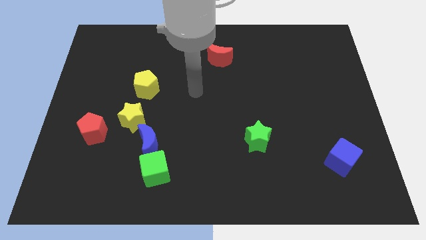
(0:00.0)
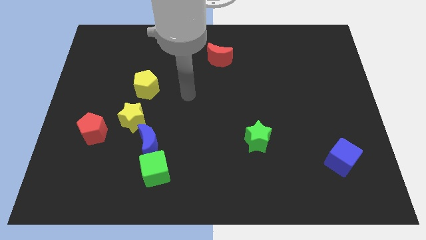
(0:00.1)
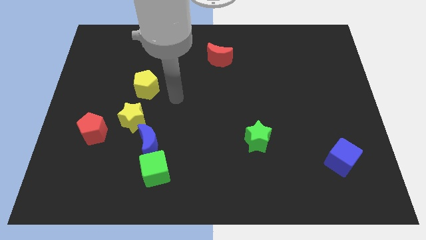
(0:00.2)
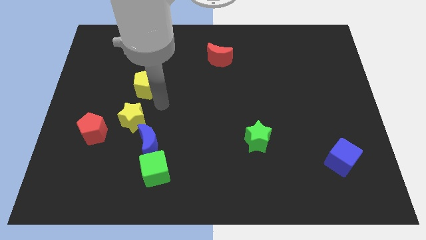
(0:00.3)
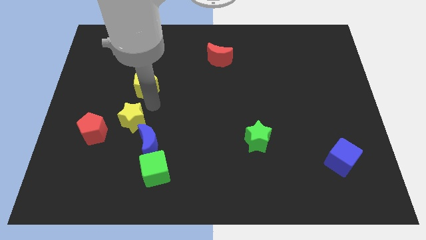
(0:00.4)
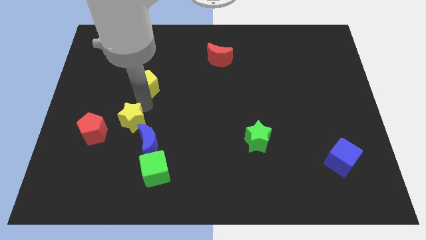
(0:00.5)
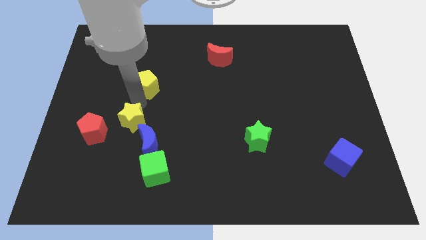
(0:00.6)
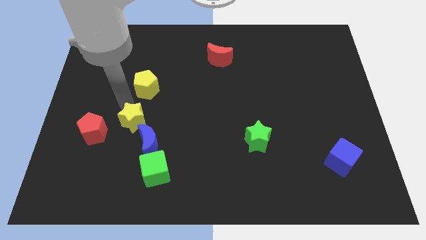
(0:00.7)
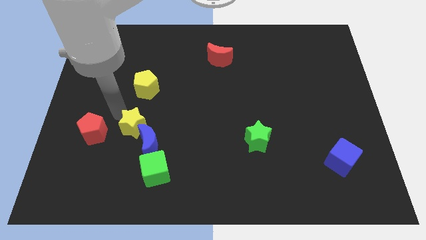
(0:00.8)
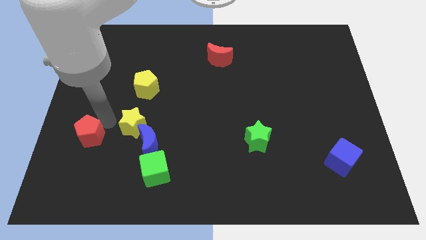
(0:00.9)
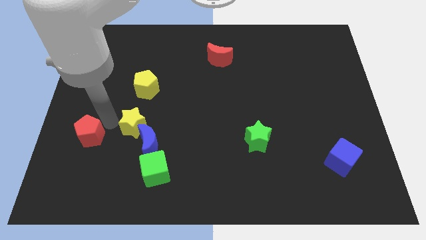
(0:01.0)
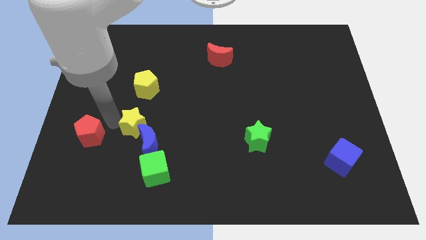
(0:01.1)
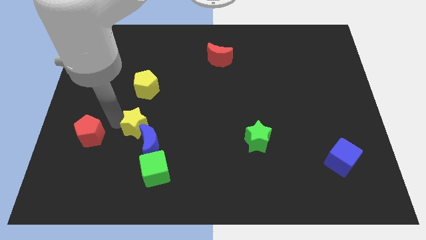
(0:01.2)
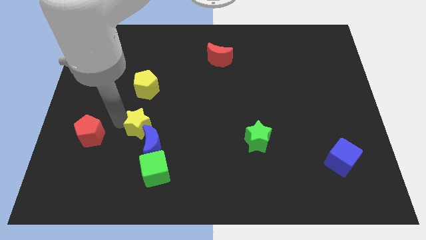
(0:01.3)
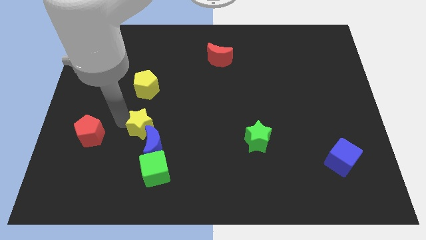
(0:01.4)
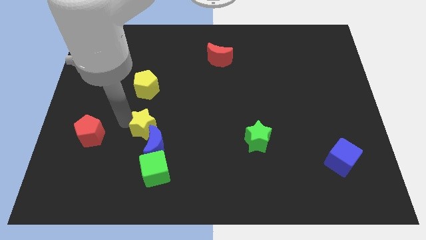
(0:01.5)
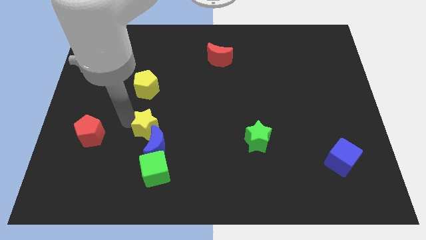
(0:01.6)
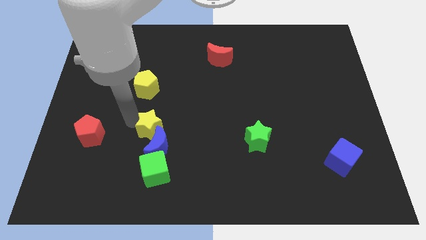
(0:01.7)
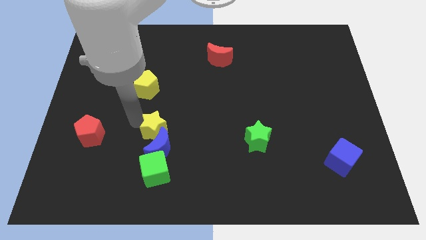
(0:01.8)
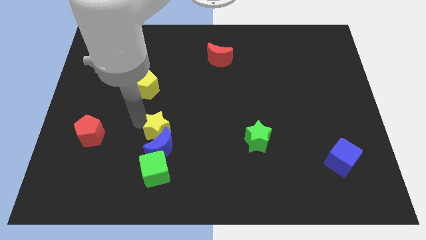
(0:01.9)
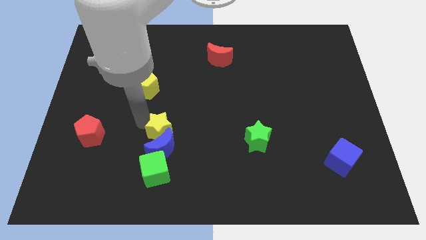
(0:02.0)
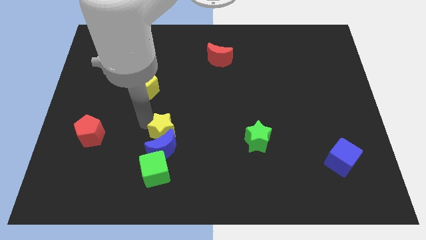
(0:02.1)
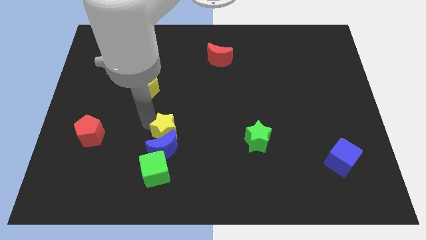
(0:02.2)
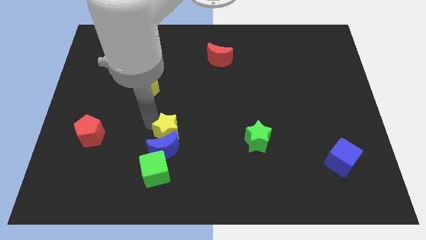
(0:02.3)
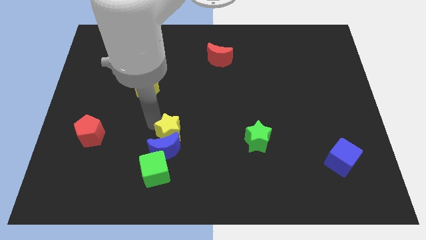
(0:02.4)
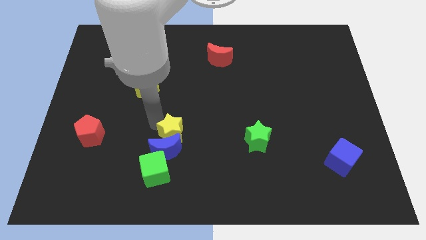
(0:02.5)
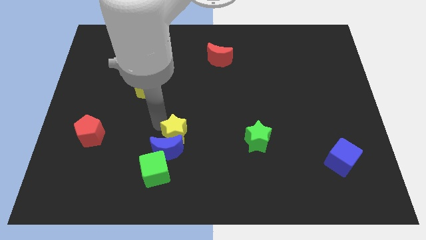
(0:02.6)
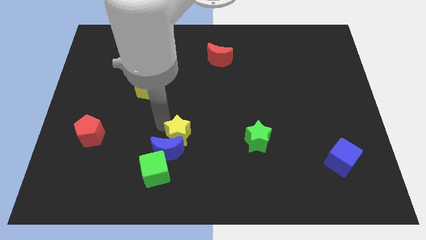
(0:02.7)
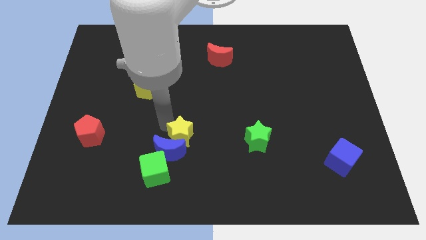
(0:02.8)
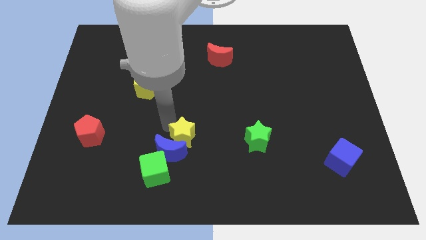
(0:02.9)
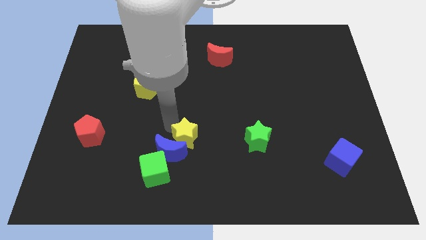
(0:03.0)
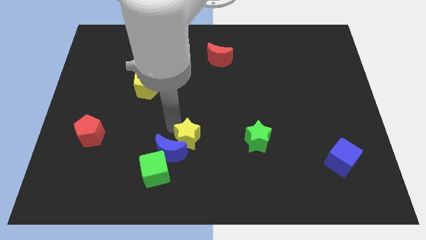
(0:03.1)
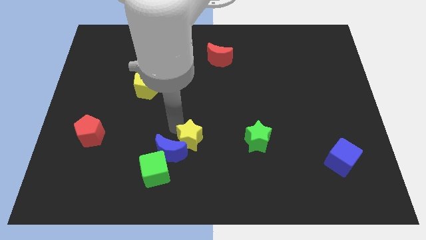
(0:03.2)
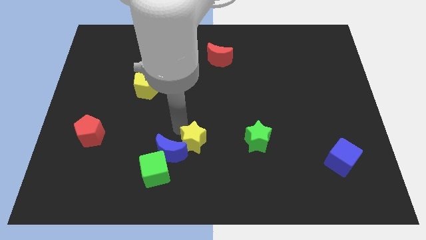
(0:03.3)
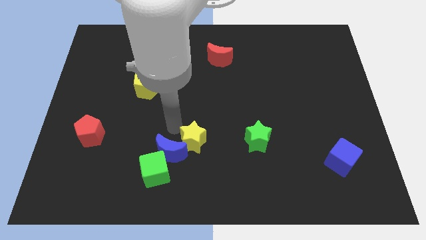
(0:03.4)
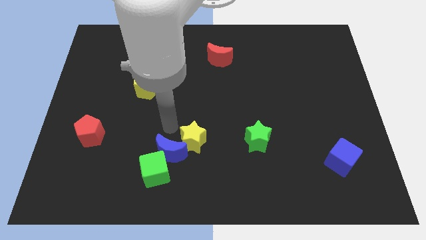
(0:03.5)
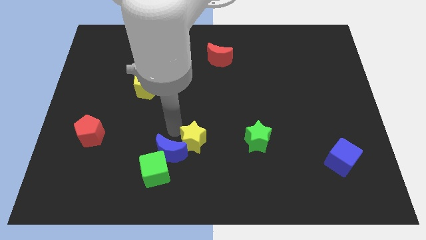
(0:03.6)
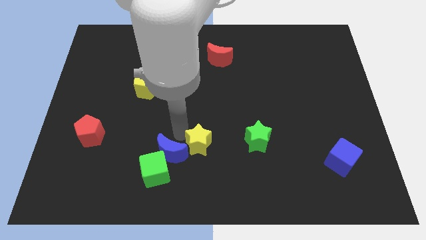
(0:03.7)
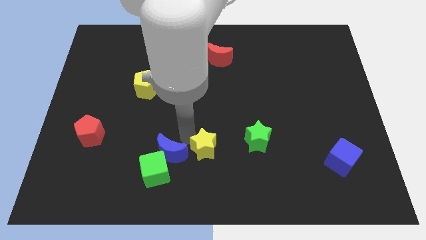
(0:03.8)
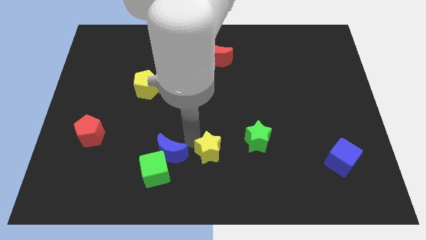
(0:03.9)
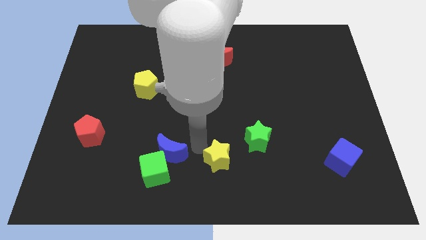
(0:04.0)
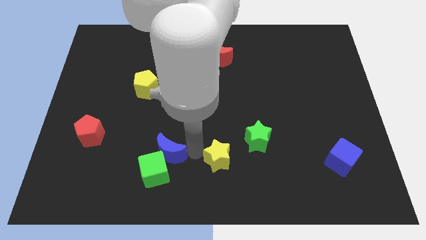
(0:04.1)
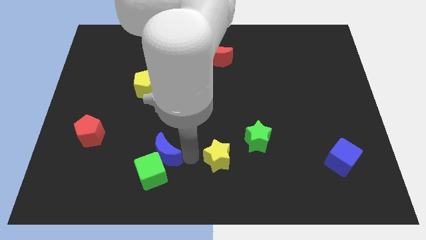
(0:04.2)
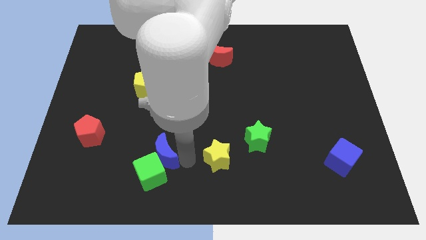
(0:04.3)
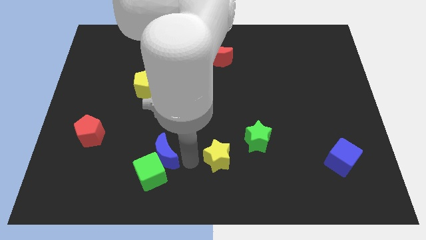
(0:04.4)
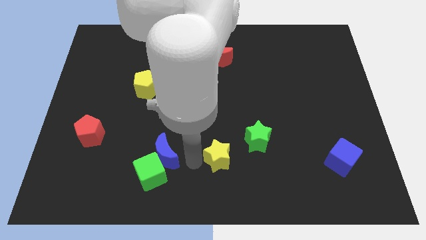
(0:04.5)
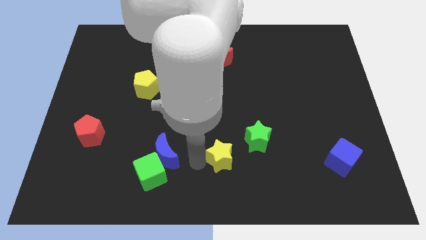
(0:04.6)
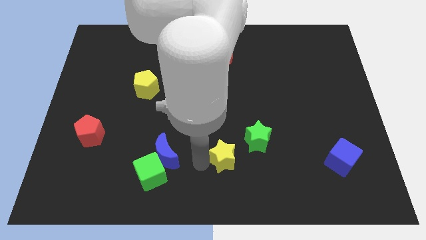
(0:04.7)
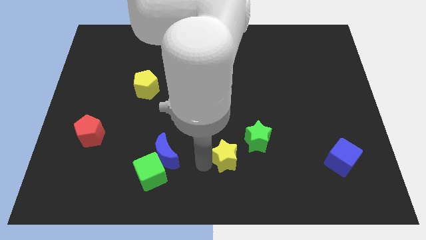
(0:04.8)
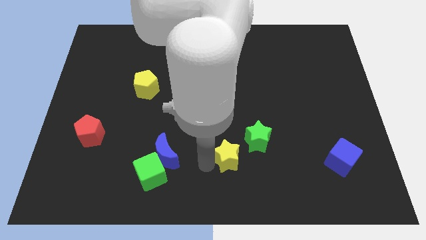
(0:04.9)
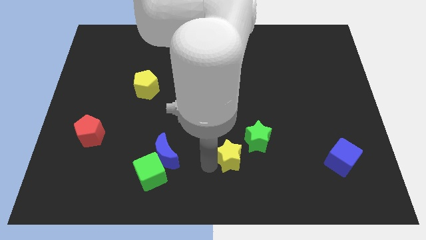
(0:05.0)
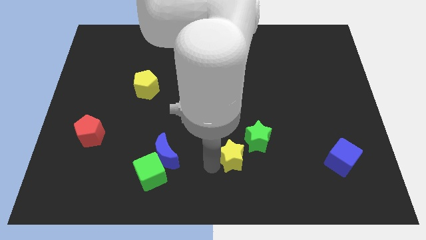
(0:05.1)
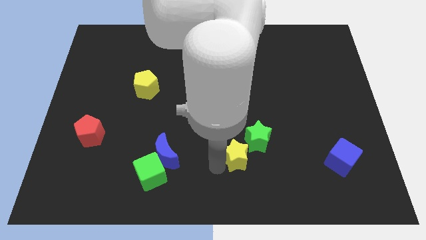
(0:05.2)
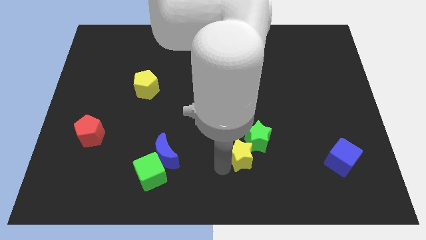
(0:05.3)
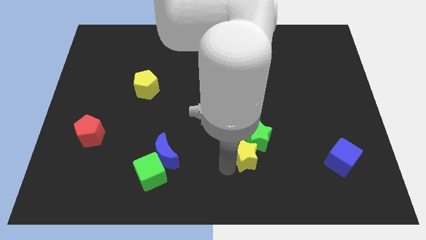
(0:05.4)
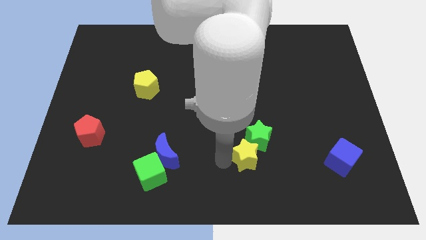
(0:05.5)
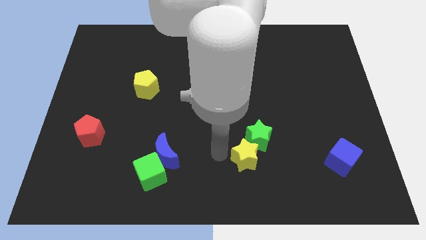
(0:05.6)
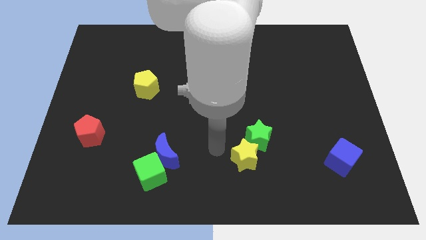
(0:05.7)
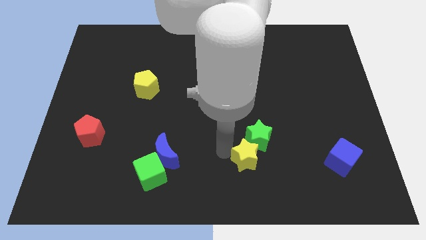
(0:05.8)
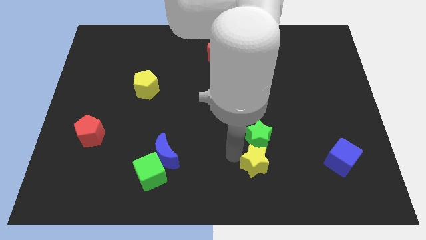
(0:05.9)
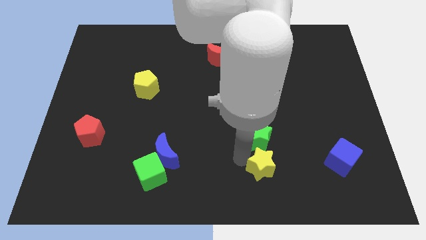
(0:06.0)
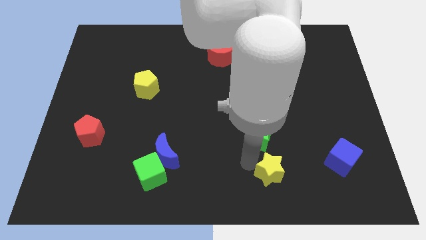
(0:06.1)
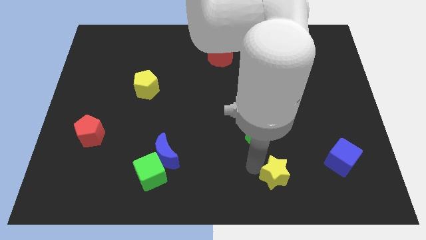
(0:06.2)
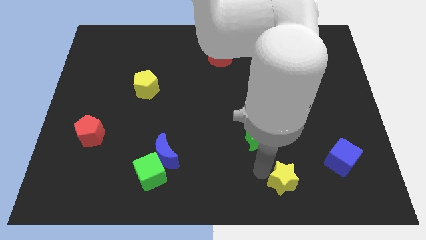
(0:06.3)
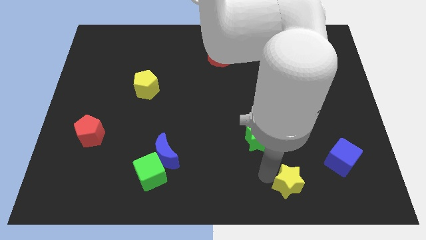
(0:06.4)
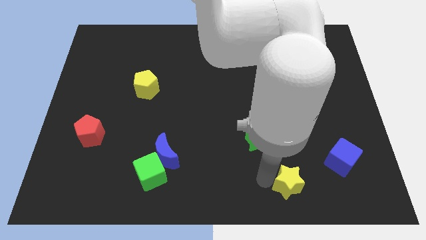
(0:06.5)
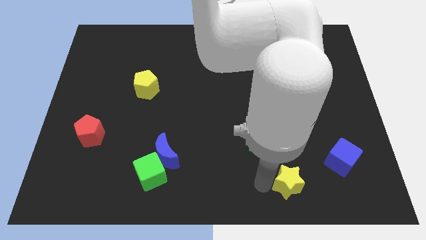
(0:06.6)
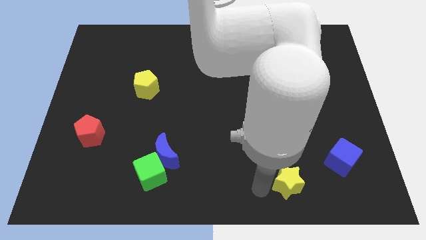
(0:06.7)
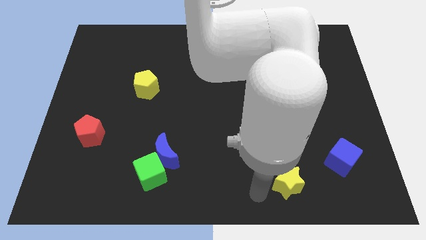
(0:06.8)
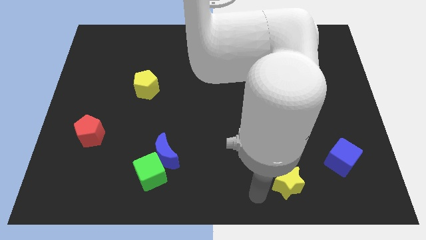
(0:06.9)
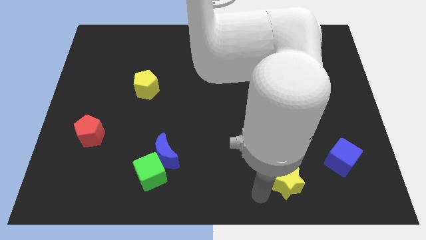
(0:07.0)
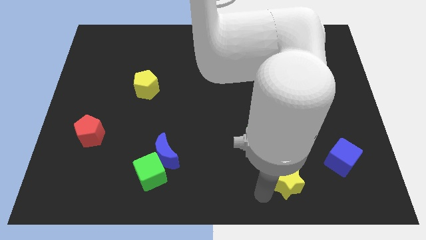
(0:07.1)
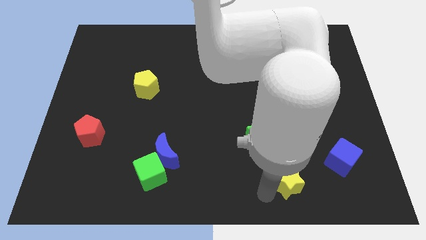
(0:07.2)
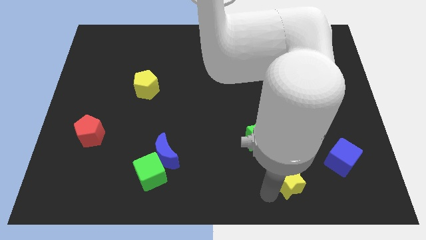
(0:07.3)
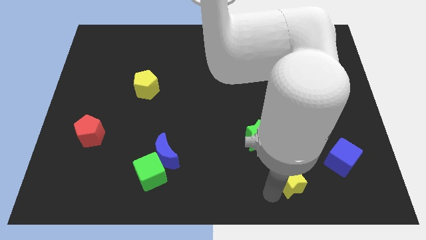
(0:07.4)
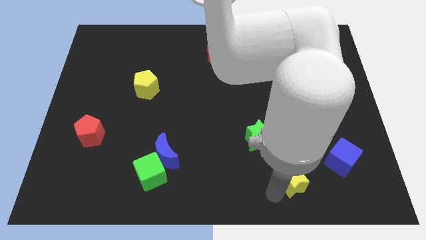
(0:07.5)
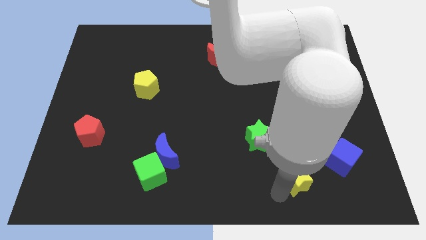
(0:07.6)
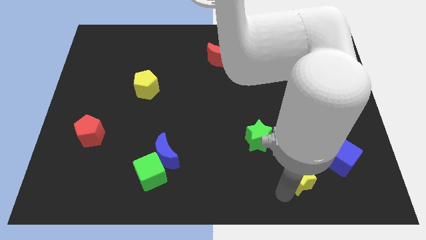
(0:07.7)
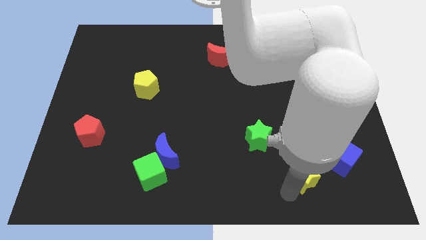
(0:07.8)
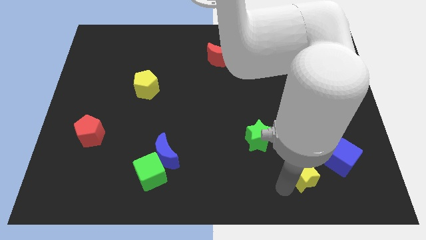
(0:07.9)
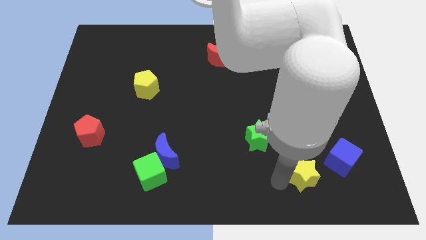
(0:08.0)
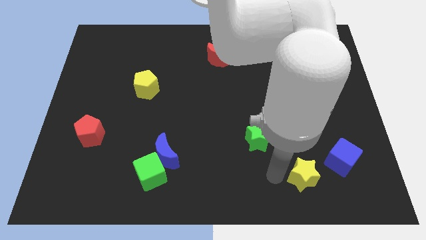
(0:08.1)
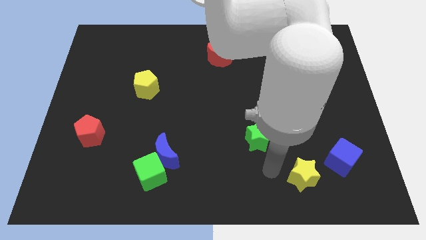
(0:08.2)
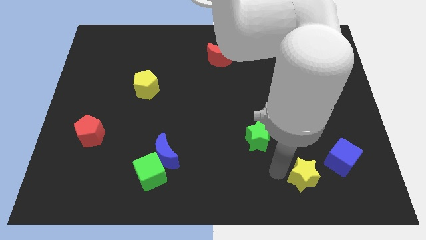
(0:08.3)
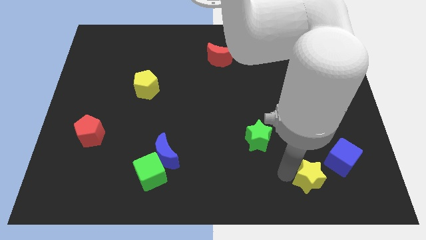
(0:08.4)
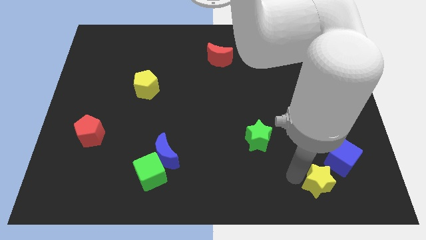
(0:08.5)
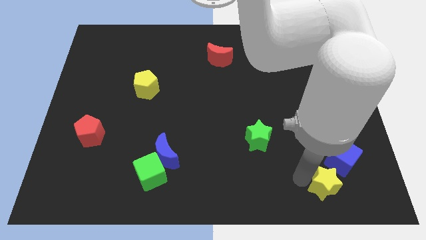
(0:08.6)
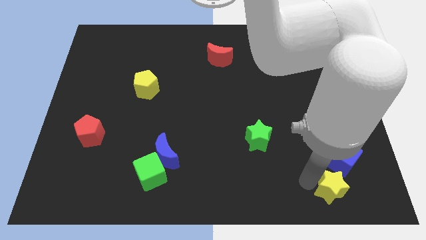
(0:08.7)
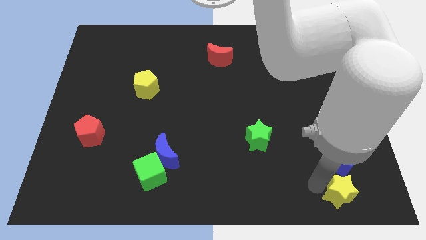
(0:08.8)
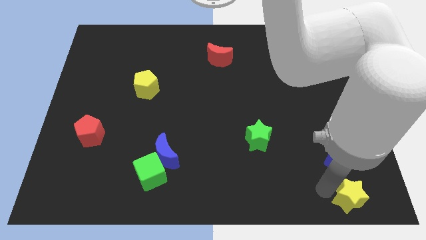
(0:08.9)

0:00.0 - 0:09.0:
slide the yellow star to the bottom right corner
